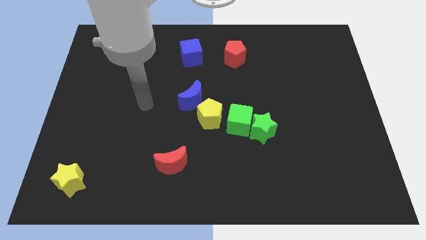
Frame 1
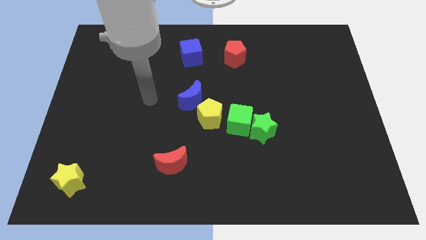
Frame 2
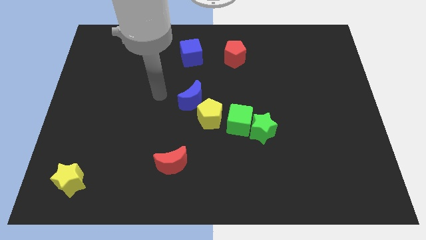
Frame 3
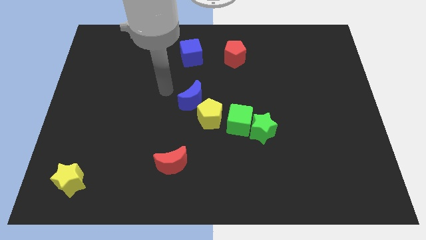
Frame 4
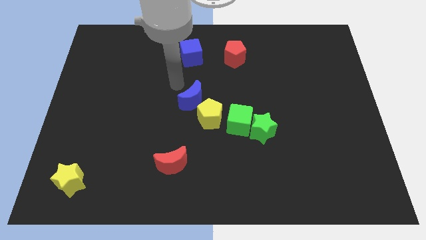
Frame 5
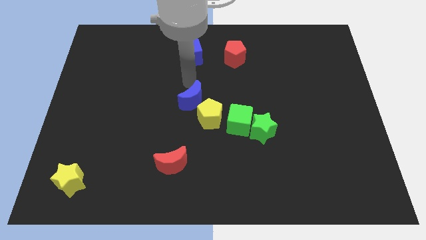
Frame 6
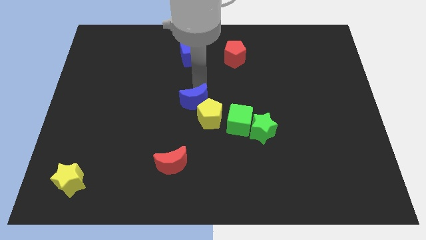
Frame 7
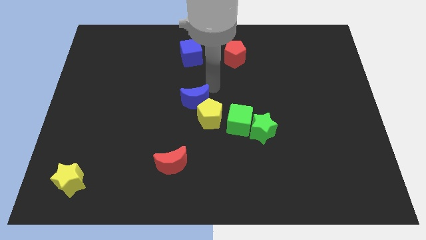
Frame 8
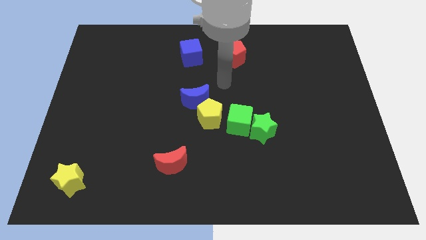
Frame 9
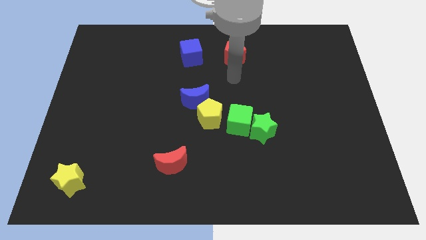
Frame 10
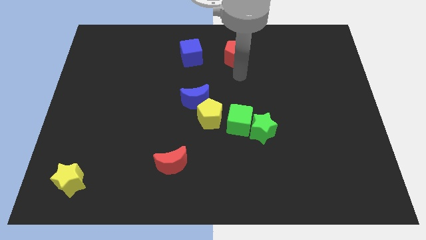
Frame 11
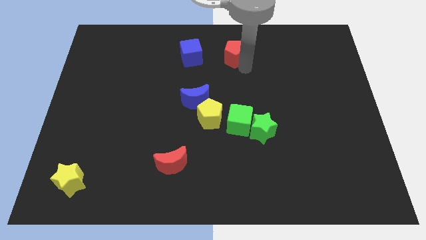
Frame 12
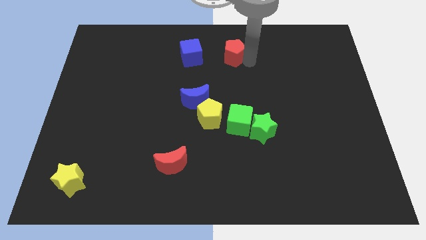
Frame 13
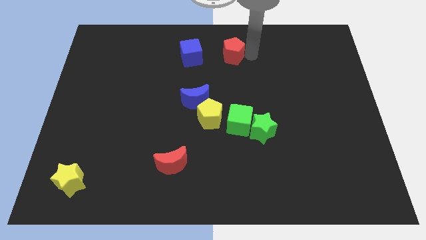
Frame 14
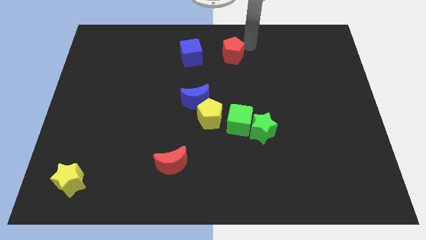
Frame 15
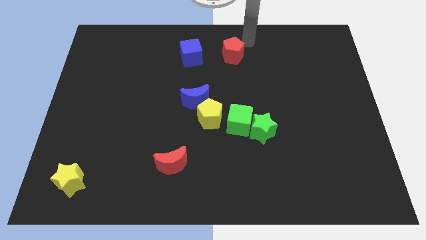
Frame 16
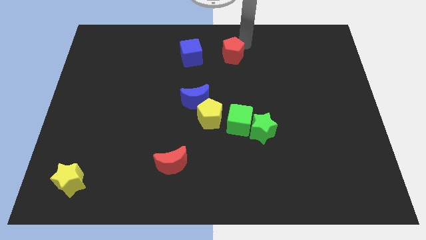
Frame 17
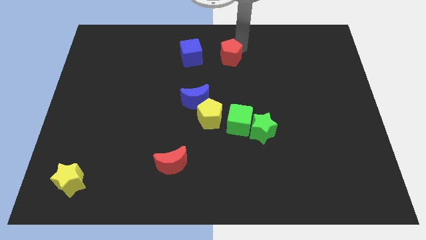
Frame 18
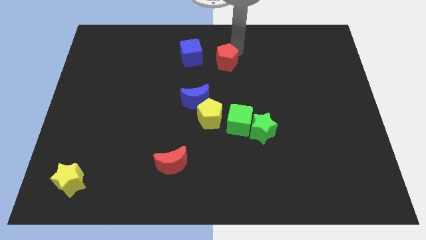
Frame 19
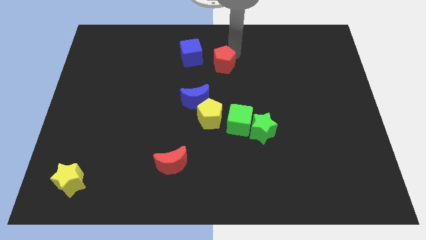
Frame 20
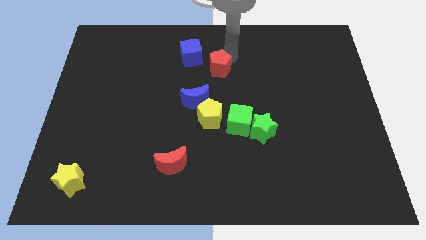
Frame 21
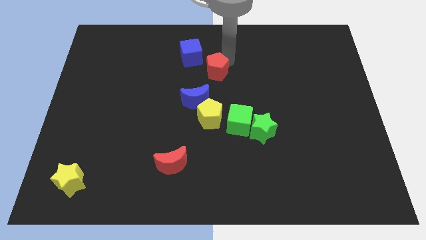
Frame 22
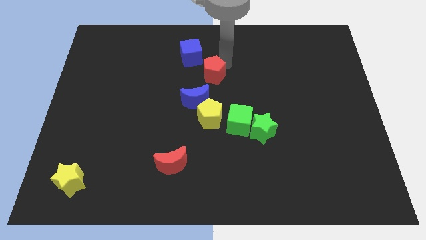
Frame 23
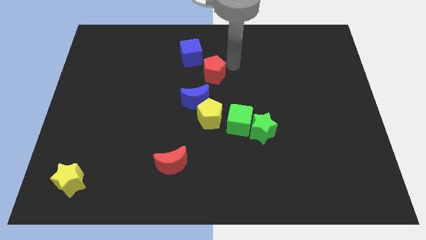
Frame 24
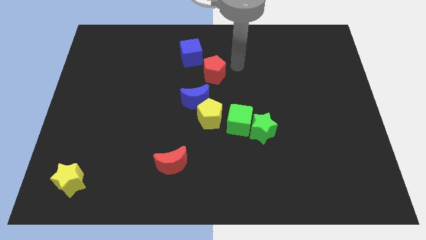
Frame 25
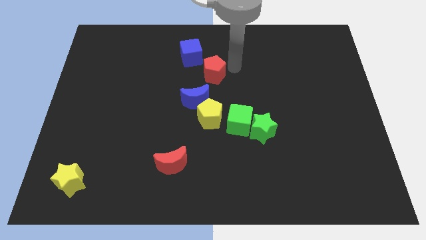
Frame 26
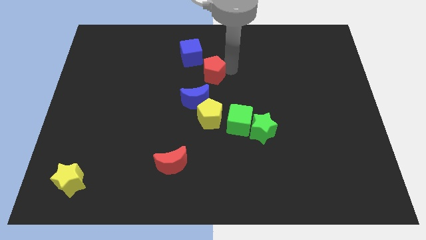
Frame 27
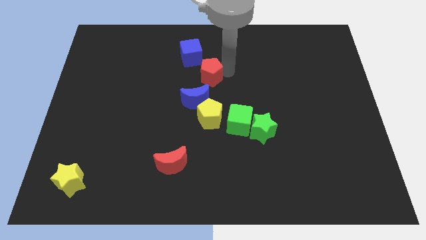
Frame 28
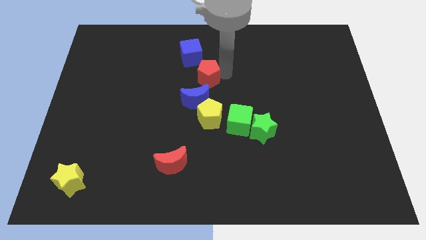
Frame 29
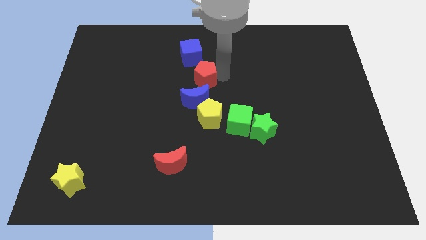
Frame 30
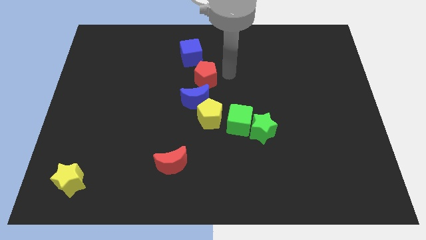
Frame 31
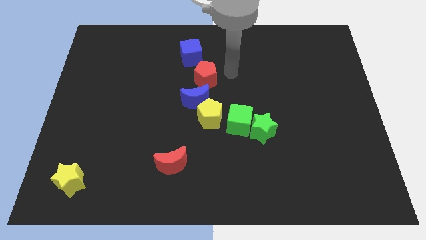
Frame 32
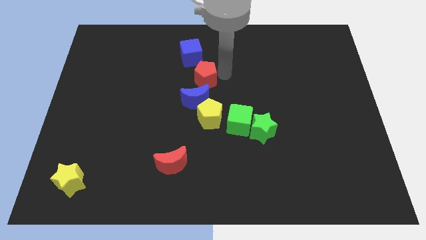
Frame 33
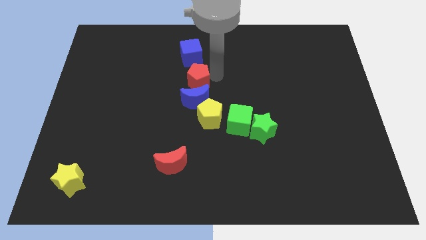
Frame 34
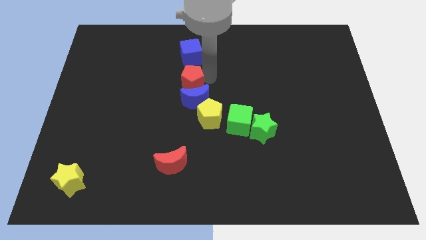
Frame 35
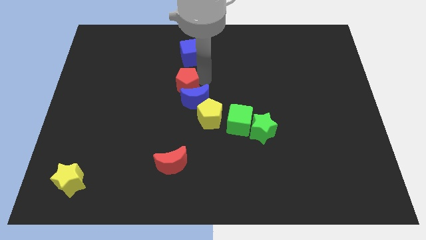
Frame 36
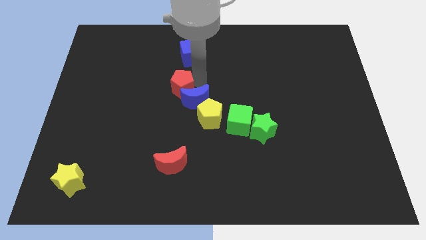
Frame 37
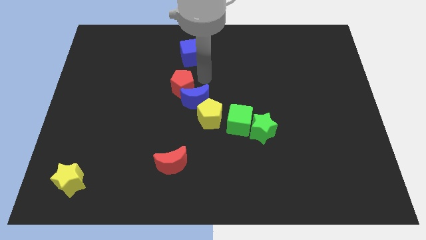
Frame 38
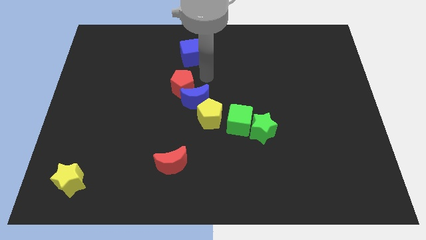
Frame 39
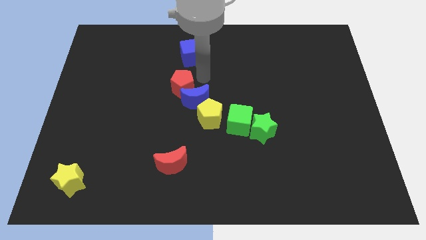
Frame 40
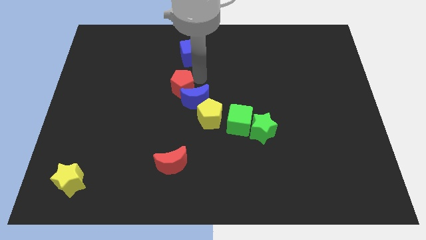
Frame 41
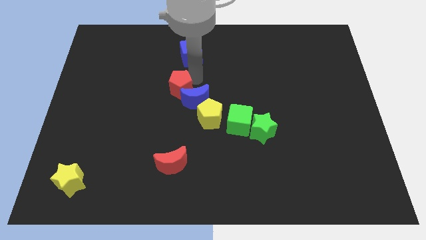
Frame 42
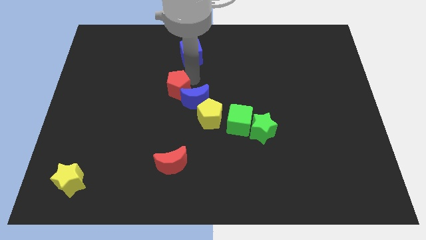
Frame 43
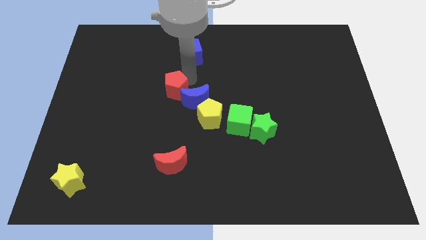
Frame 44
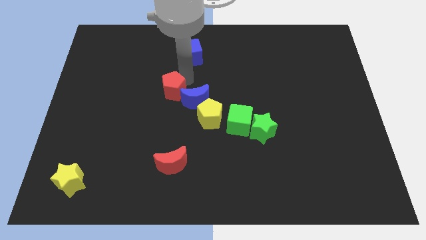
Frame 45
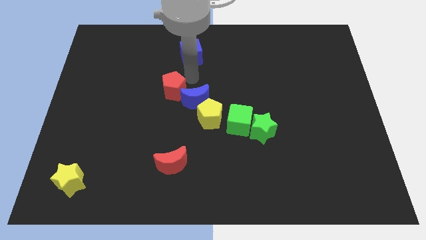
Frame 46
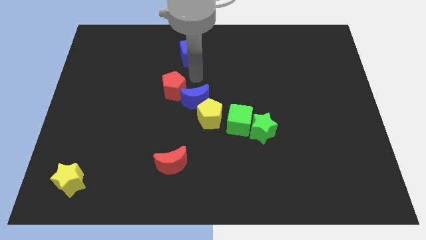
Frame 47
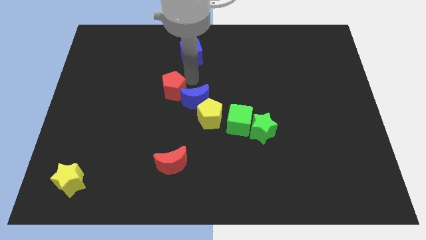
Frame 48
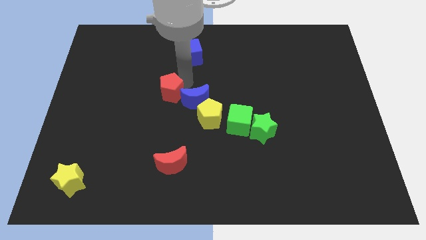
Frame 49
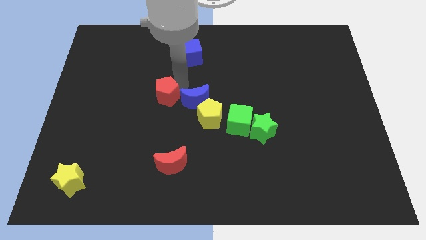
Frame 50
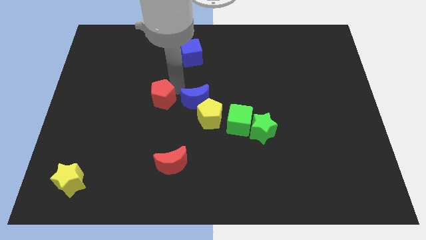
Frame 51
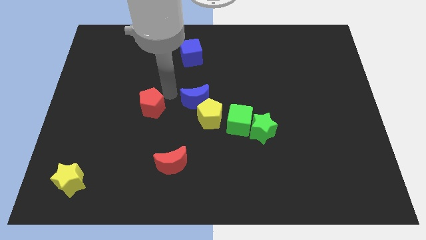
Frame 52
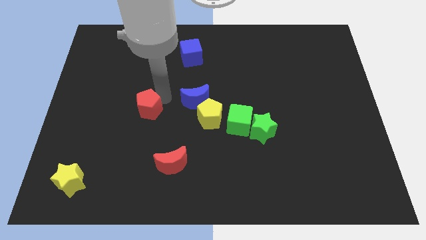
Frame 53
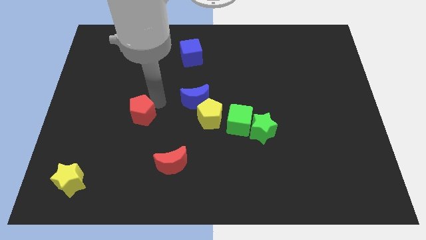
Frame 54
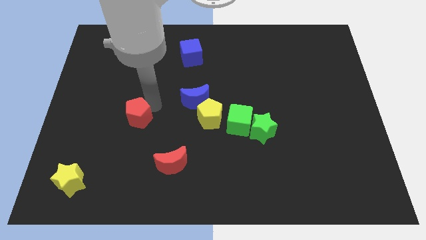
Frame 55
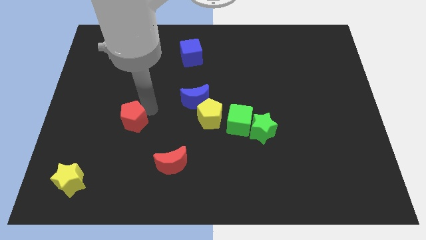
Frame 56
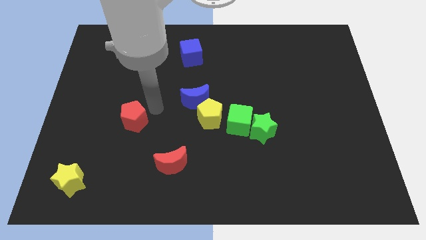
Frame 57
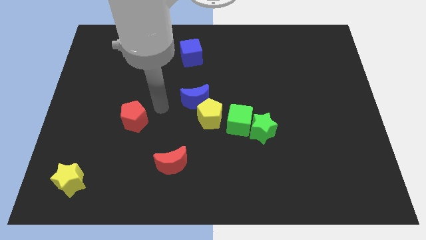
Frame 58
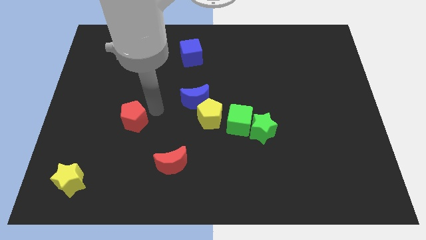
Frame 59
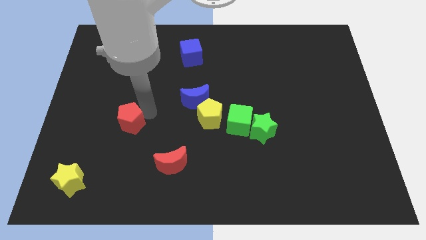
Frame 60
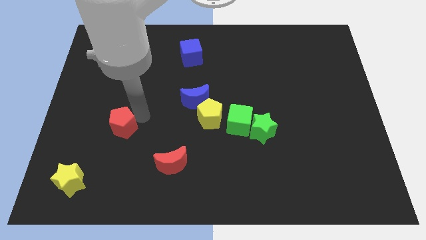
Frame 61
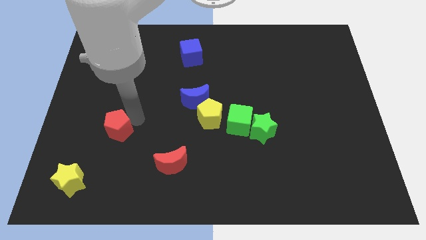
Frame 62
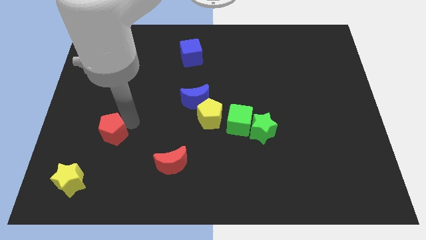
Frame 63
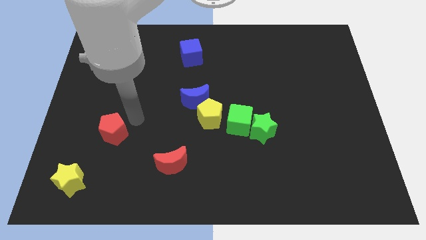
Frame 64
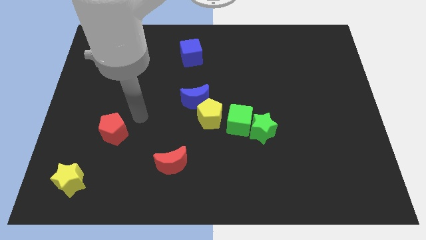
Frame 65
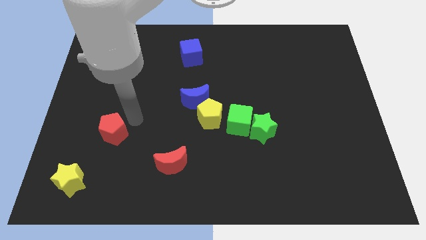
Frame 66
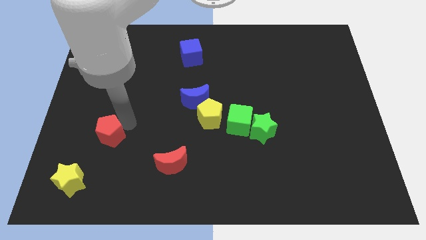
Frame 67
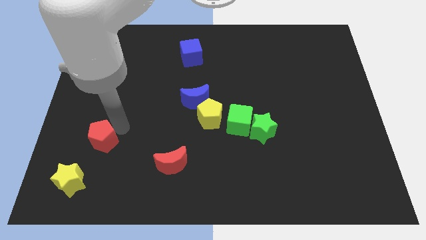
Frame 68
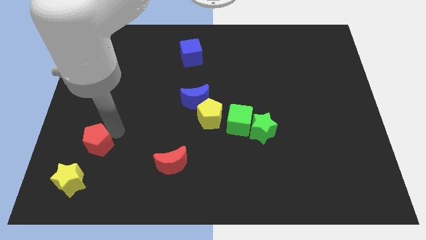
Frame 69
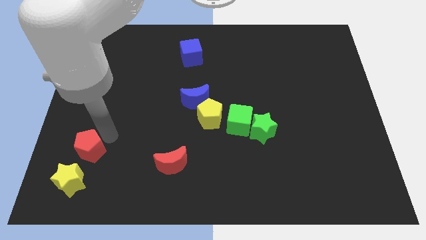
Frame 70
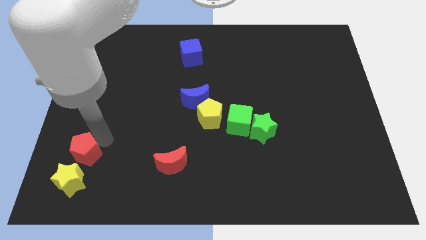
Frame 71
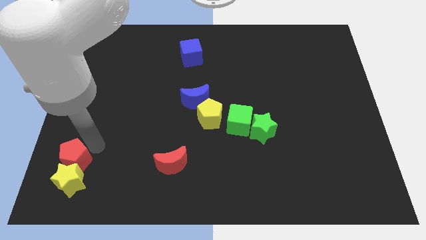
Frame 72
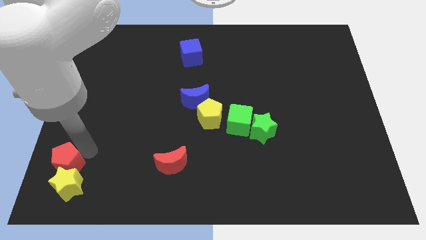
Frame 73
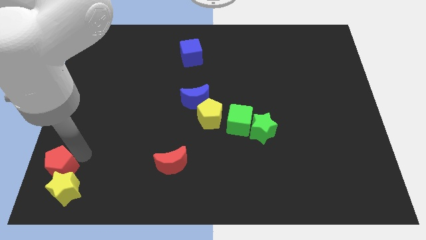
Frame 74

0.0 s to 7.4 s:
put the red pentagon to the bottom left corner
